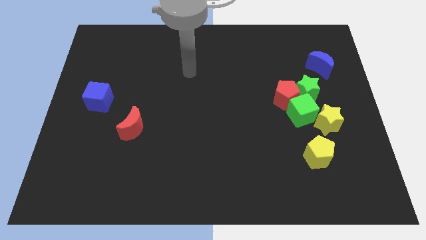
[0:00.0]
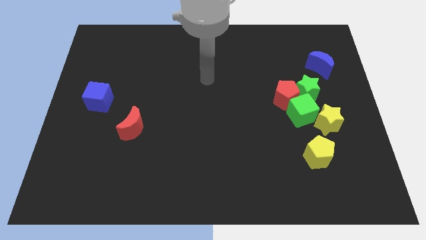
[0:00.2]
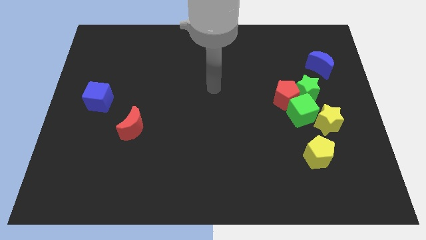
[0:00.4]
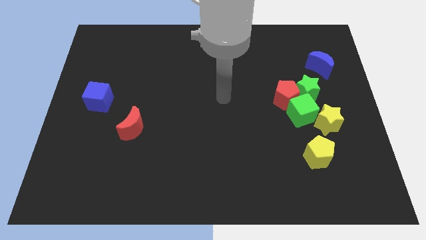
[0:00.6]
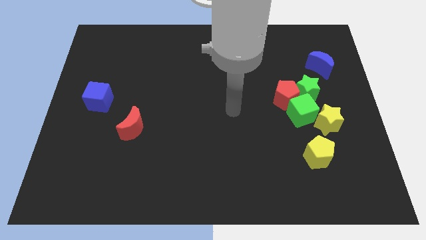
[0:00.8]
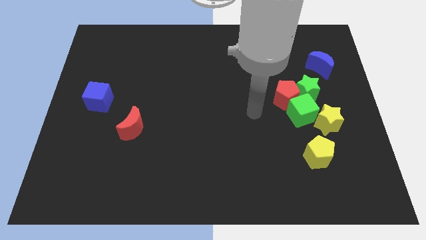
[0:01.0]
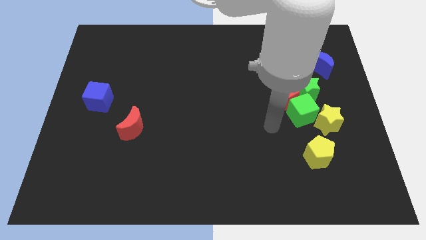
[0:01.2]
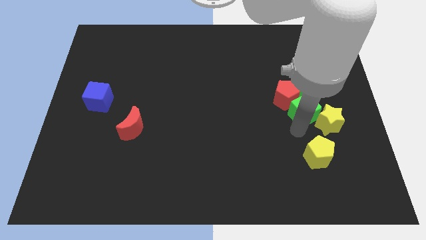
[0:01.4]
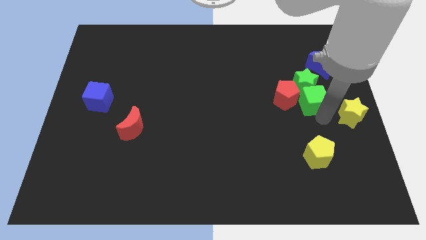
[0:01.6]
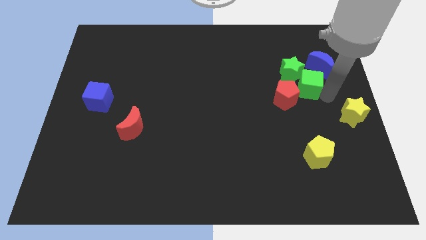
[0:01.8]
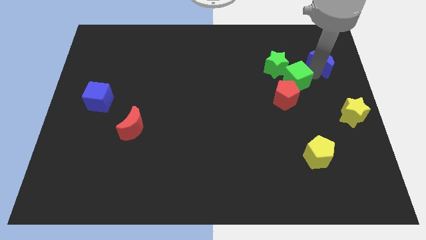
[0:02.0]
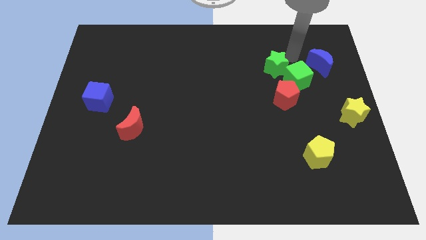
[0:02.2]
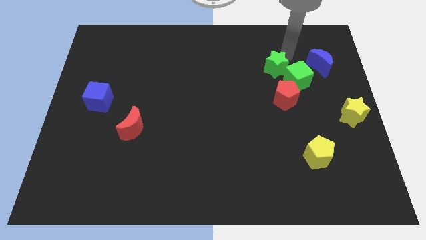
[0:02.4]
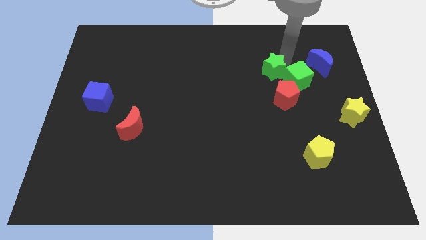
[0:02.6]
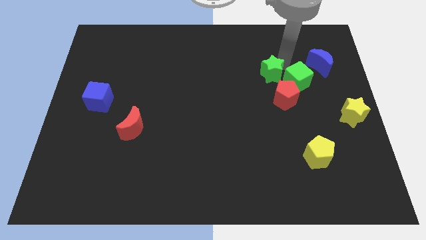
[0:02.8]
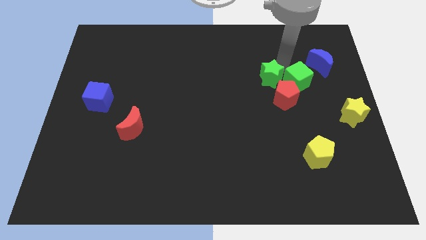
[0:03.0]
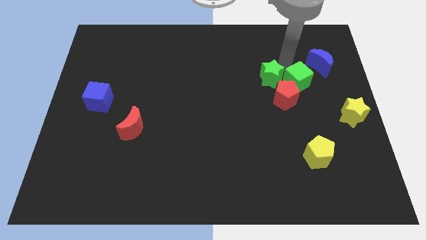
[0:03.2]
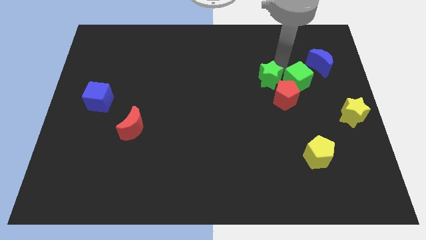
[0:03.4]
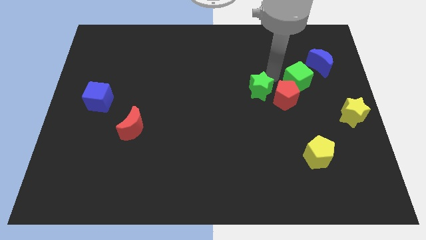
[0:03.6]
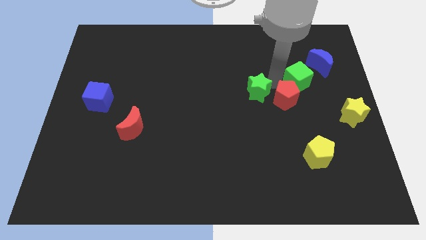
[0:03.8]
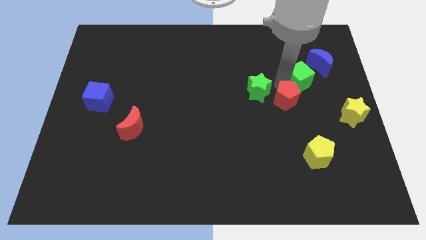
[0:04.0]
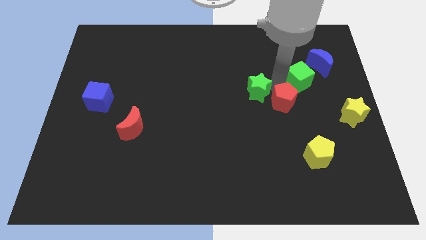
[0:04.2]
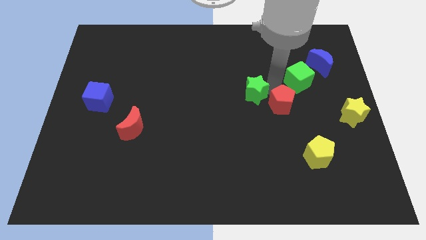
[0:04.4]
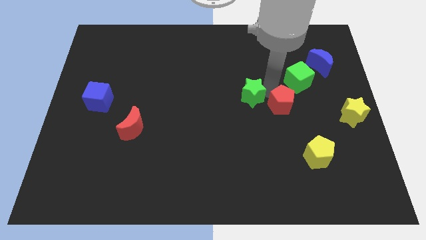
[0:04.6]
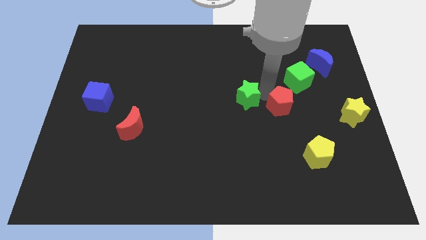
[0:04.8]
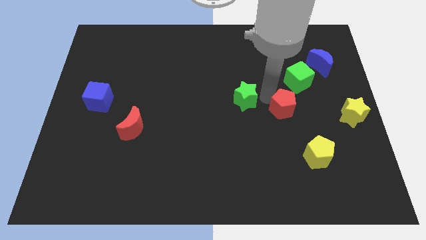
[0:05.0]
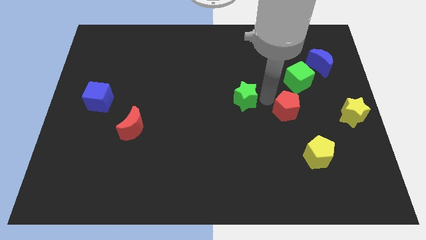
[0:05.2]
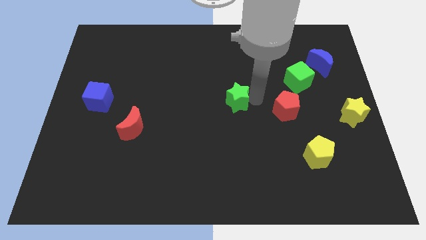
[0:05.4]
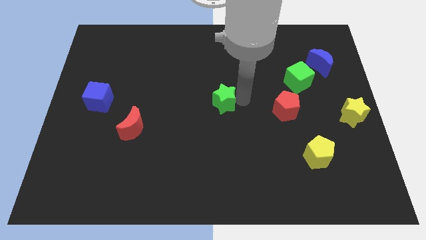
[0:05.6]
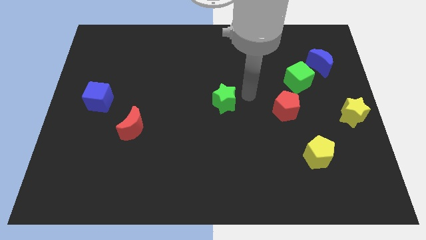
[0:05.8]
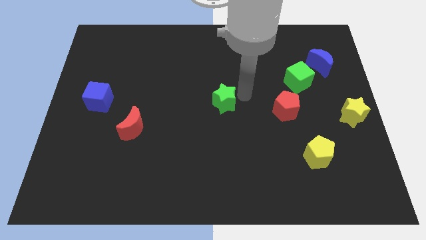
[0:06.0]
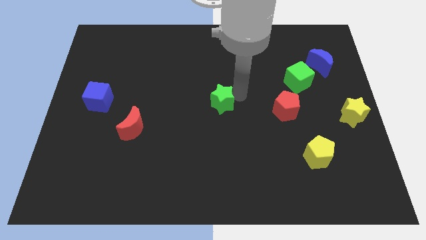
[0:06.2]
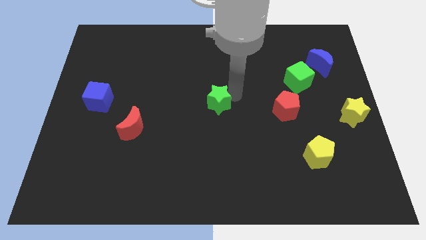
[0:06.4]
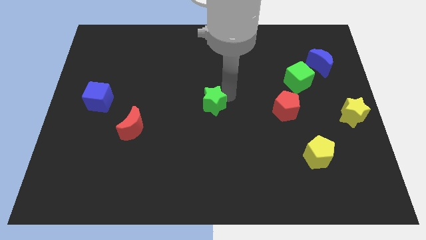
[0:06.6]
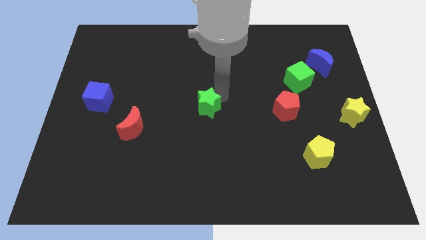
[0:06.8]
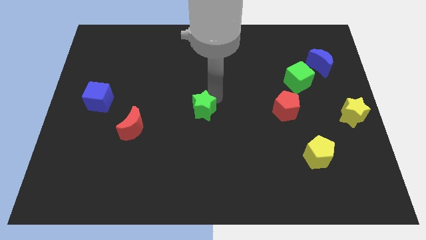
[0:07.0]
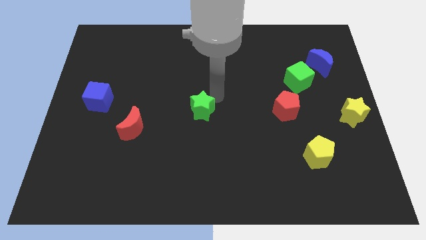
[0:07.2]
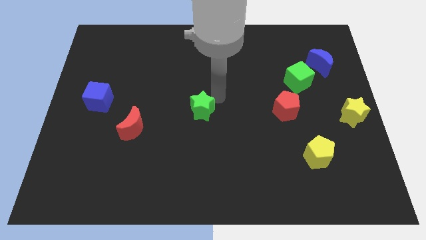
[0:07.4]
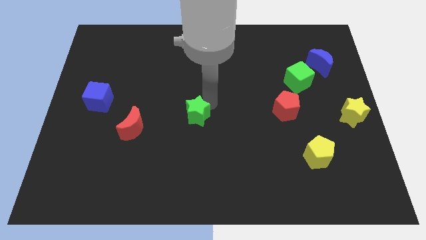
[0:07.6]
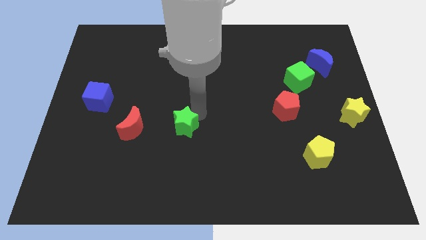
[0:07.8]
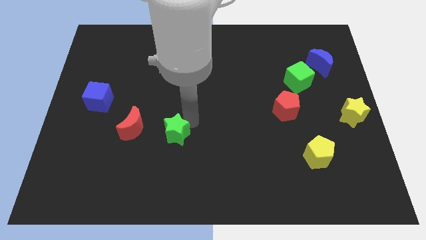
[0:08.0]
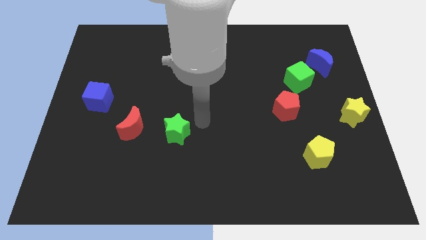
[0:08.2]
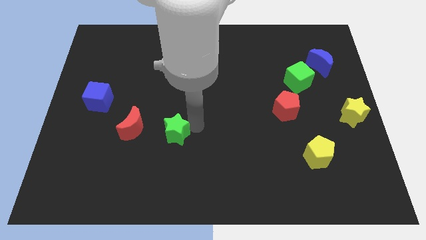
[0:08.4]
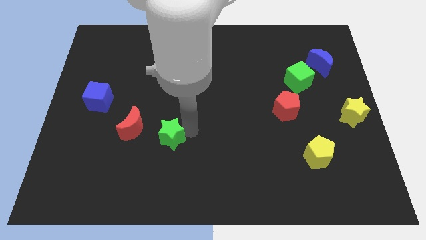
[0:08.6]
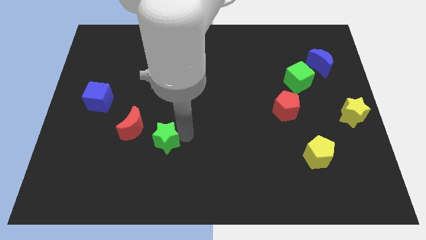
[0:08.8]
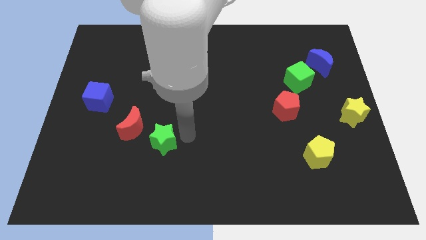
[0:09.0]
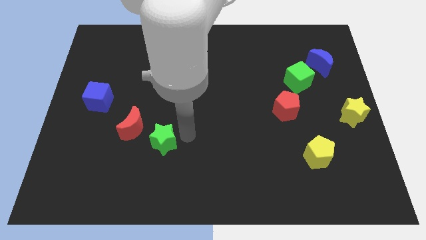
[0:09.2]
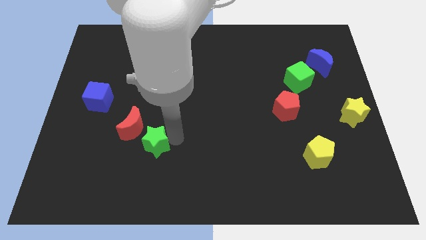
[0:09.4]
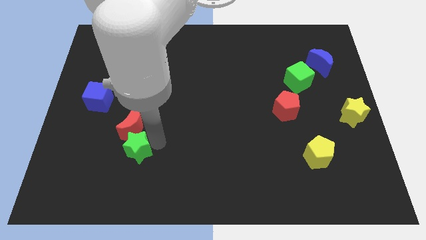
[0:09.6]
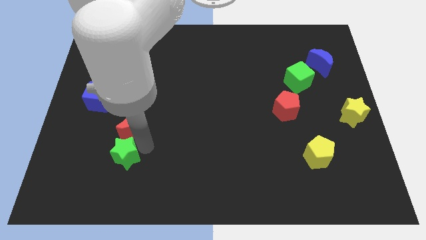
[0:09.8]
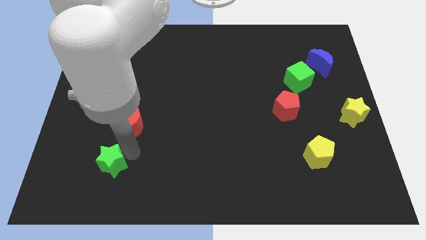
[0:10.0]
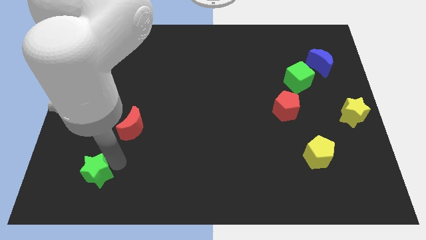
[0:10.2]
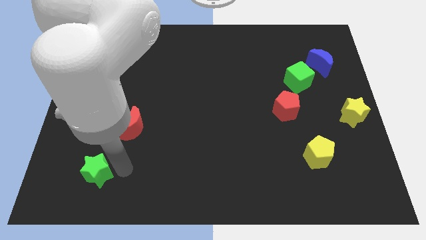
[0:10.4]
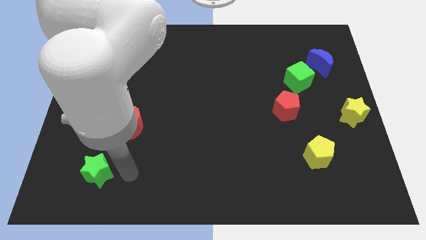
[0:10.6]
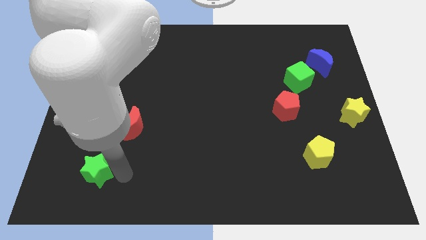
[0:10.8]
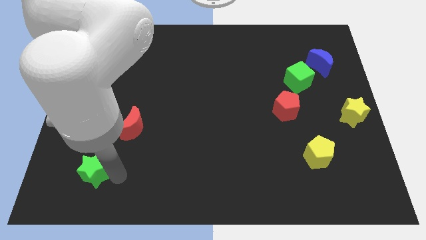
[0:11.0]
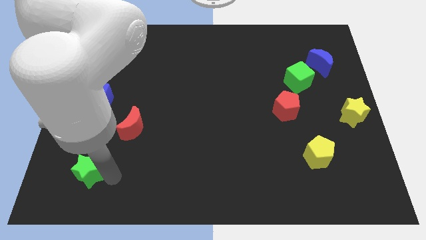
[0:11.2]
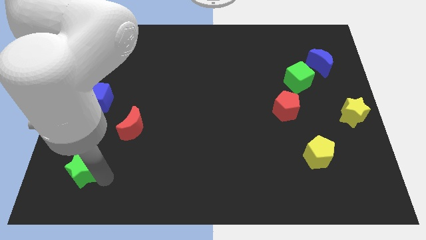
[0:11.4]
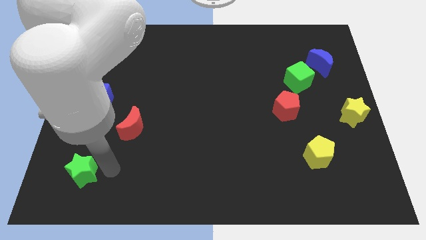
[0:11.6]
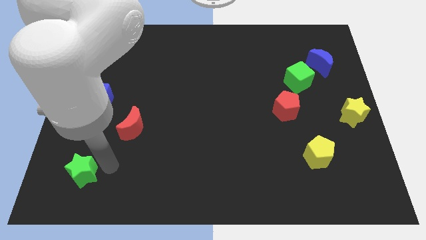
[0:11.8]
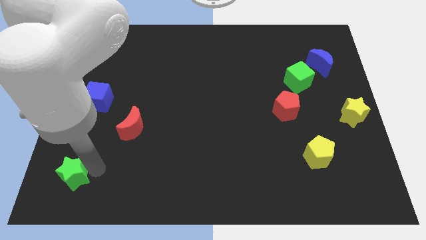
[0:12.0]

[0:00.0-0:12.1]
move the green star to the bottom left corner
